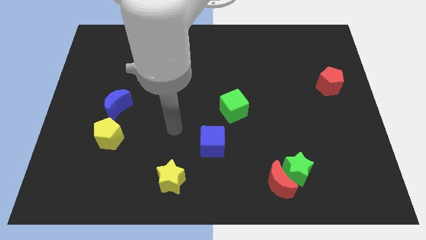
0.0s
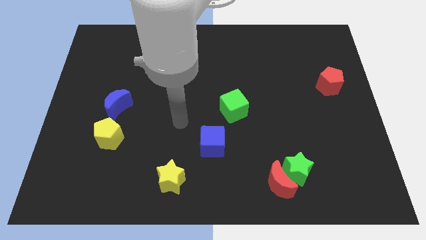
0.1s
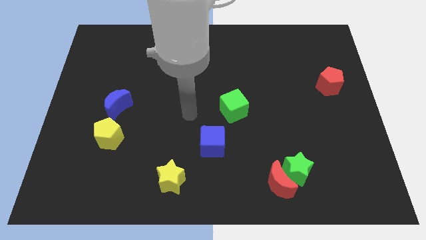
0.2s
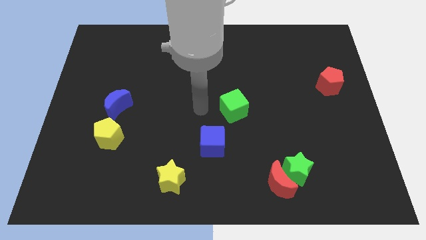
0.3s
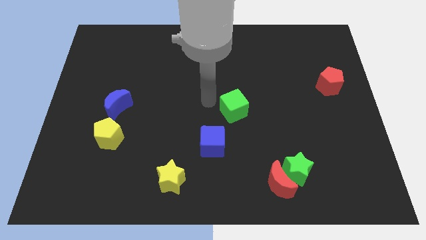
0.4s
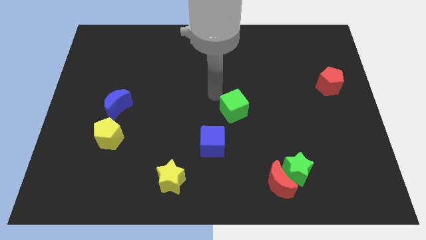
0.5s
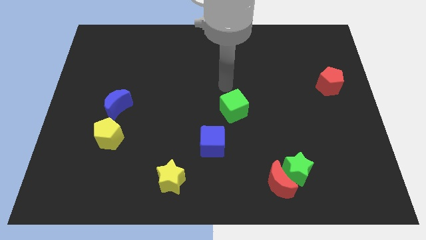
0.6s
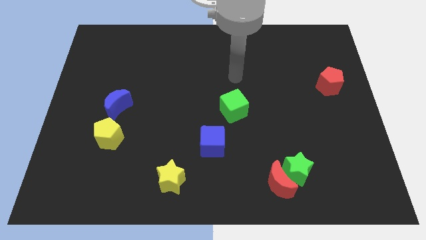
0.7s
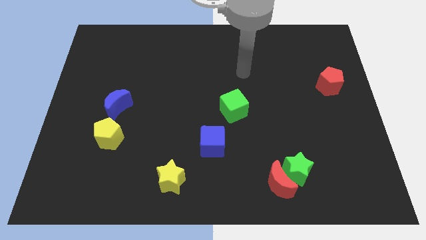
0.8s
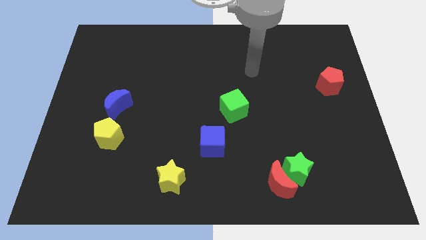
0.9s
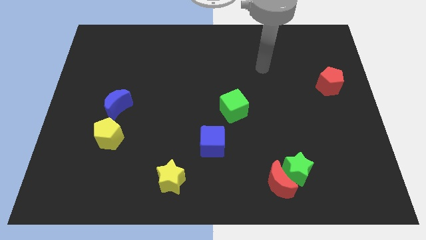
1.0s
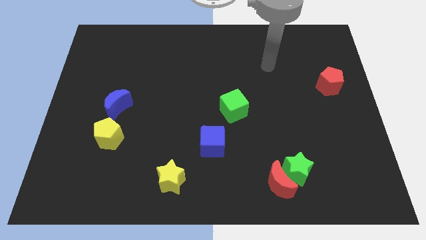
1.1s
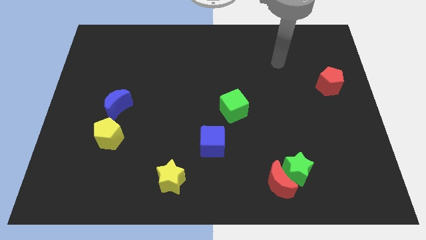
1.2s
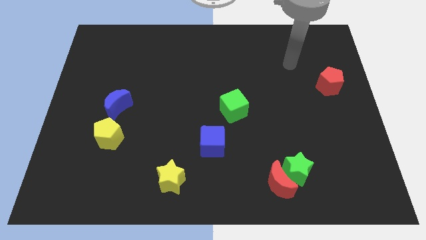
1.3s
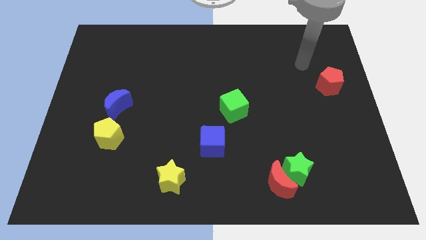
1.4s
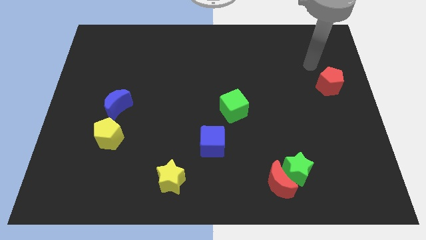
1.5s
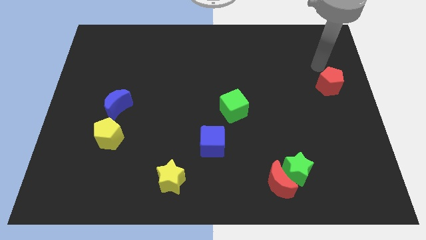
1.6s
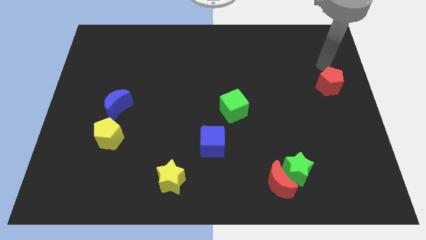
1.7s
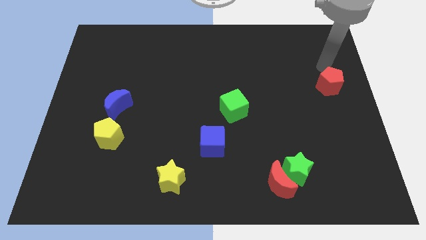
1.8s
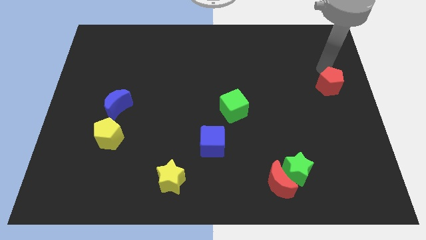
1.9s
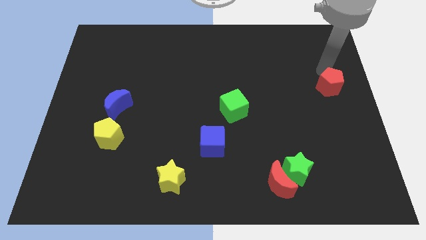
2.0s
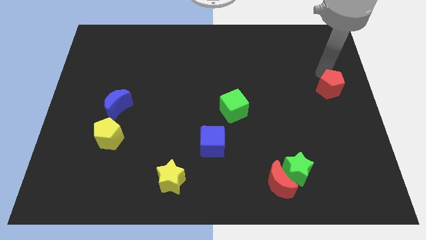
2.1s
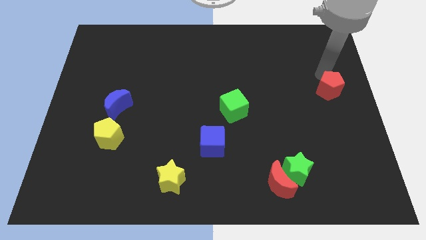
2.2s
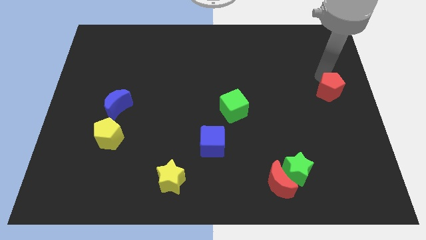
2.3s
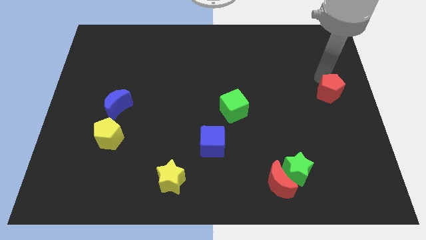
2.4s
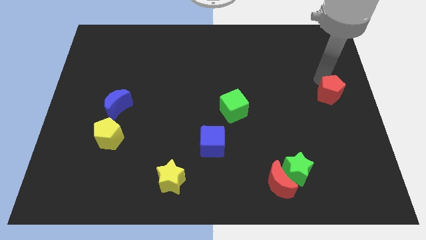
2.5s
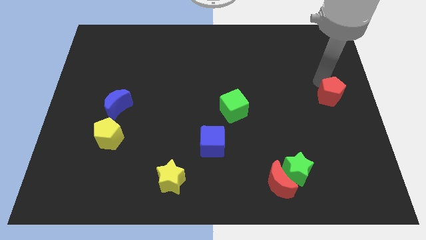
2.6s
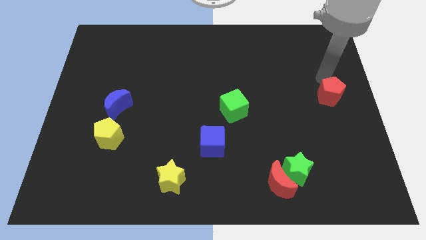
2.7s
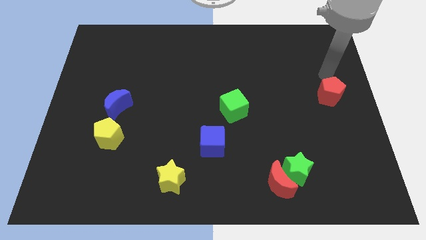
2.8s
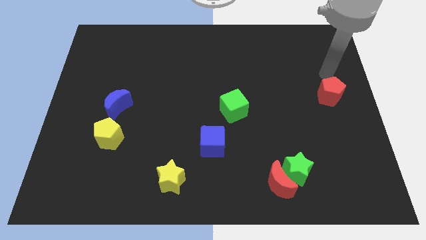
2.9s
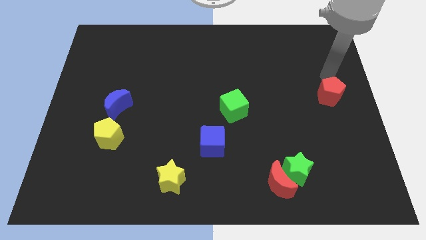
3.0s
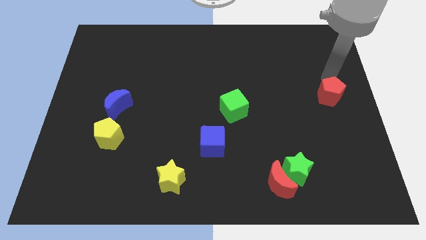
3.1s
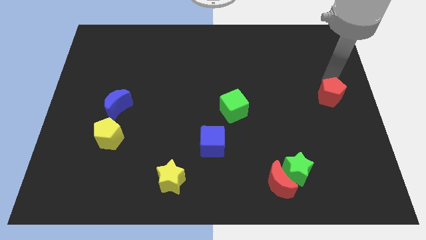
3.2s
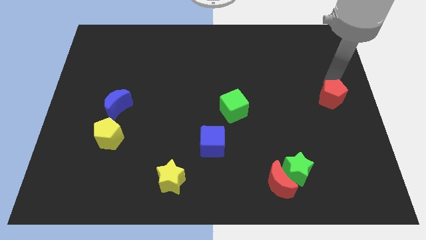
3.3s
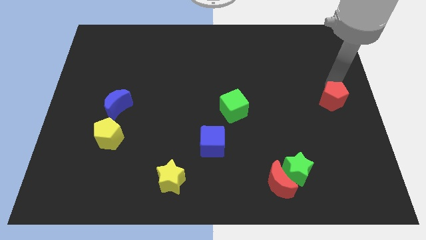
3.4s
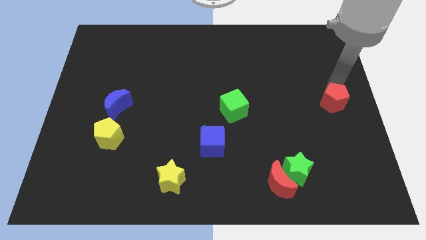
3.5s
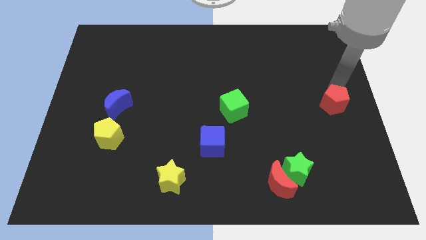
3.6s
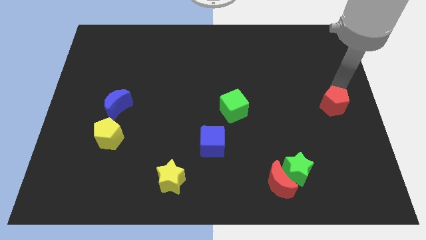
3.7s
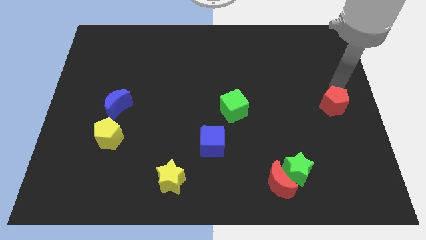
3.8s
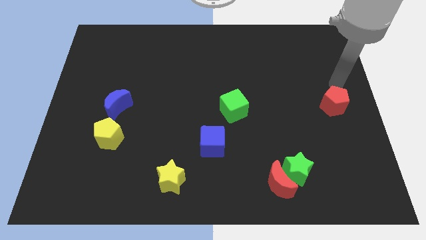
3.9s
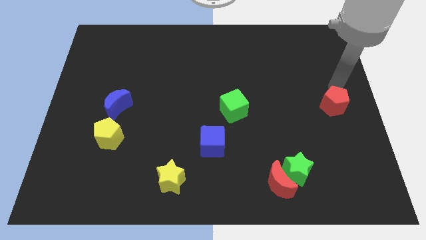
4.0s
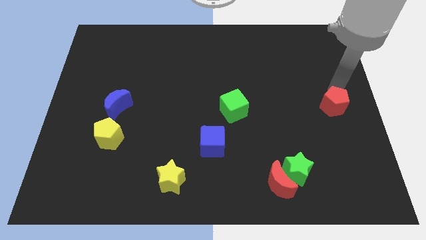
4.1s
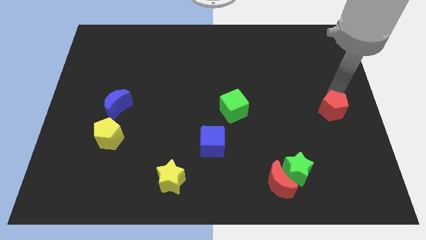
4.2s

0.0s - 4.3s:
push the red pentagon somewhat downwards

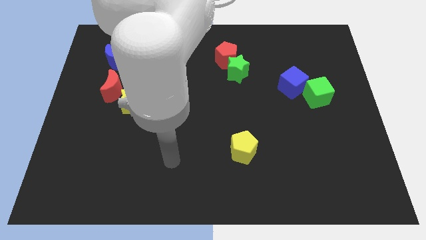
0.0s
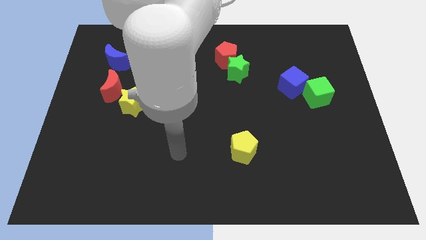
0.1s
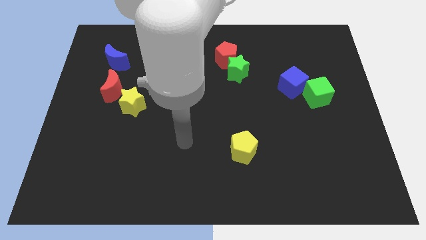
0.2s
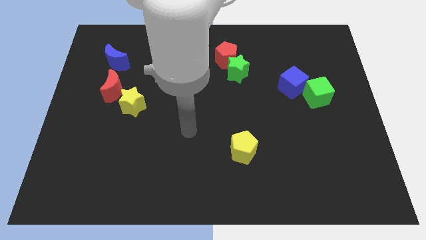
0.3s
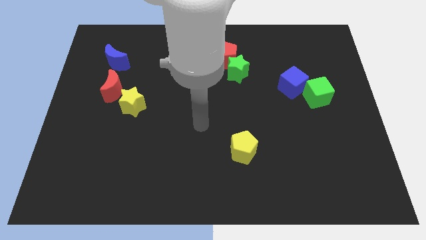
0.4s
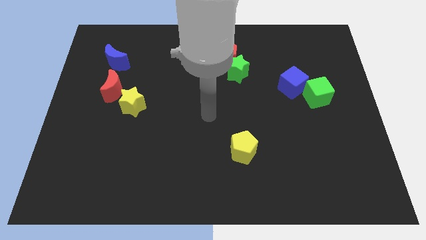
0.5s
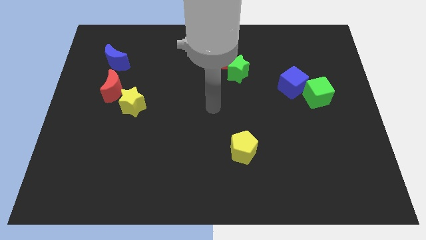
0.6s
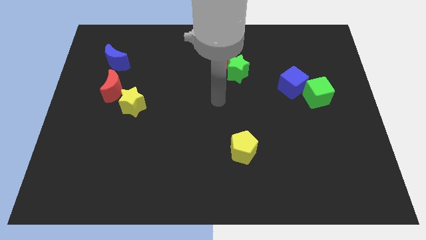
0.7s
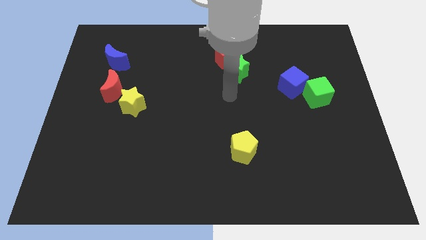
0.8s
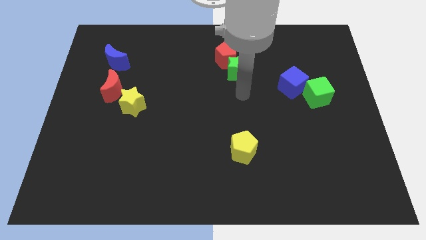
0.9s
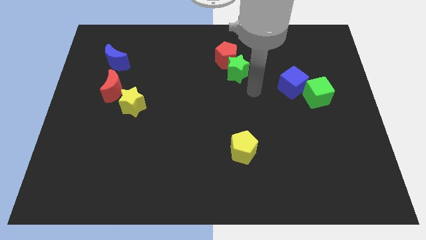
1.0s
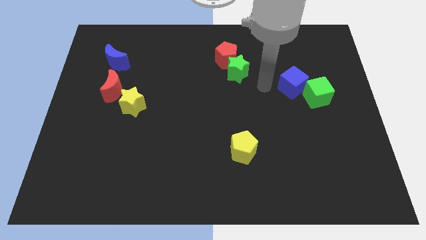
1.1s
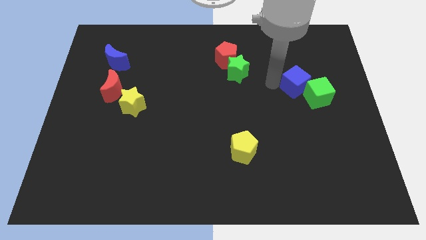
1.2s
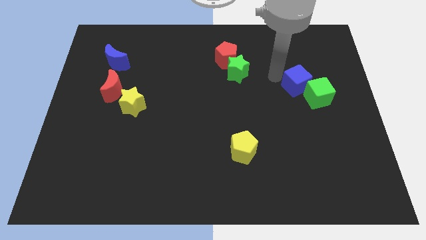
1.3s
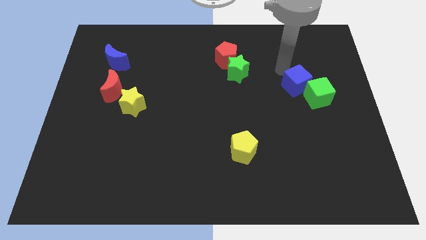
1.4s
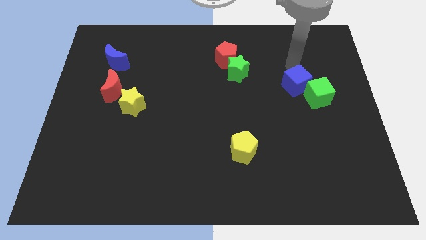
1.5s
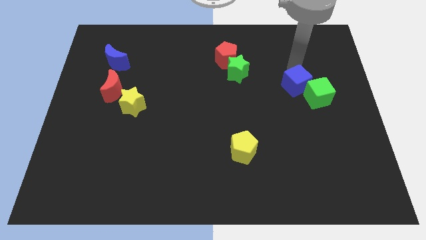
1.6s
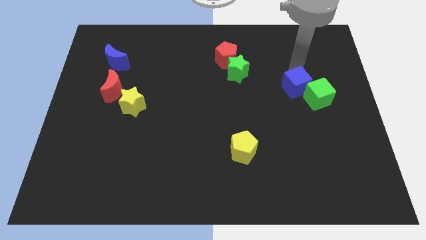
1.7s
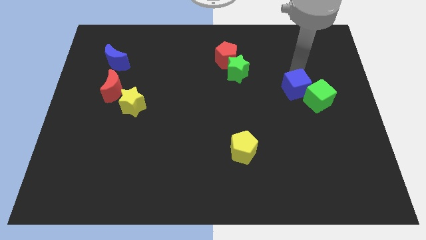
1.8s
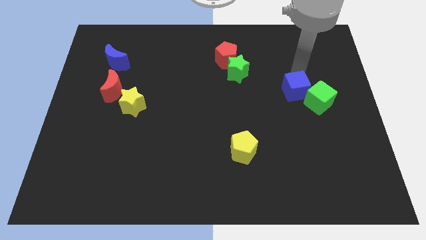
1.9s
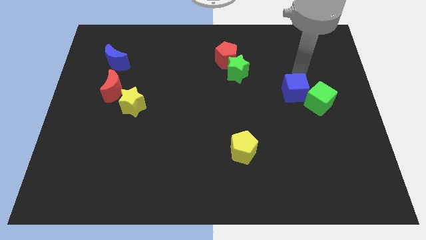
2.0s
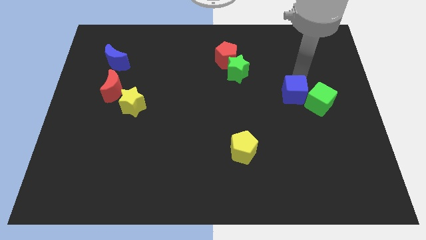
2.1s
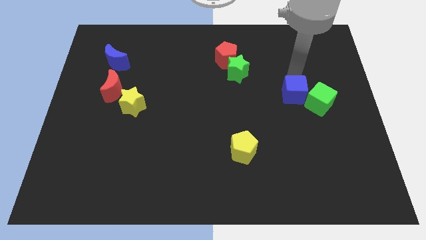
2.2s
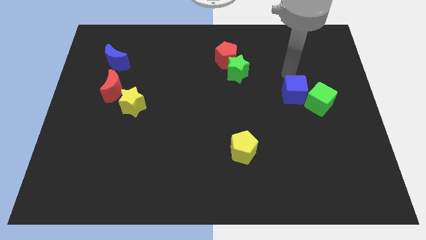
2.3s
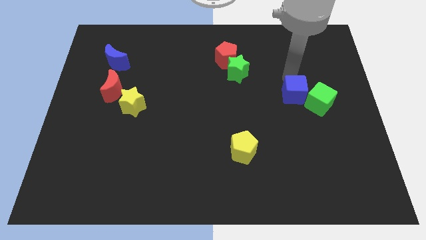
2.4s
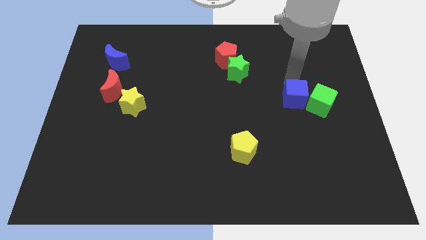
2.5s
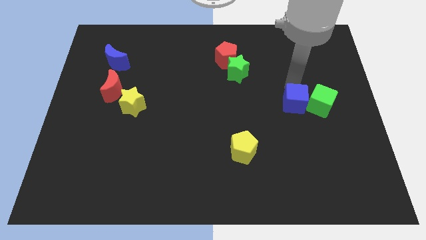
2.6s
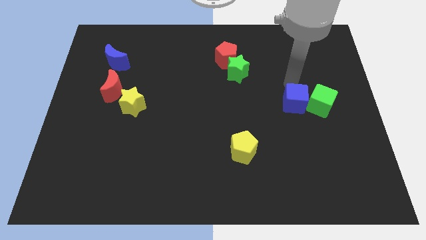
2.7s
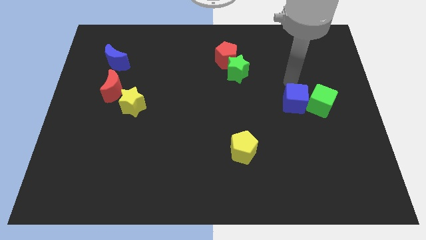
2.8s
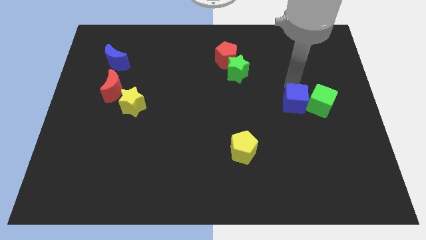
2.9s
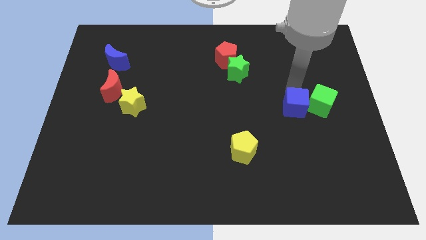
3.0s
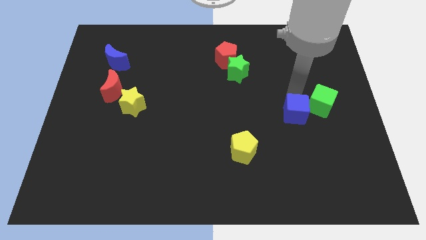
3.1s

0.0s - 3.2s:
push the blue cube a little bit down

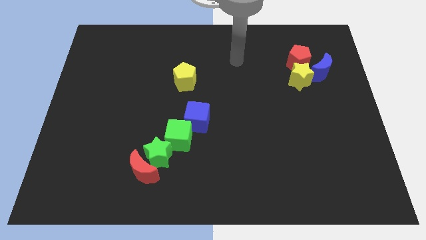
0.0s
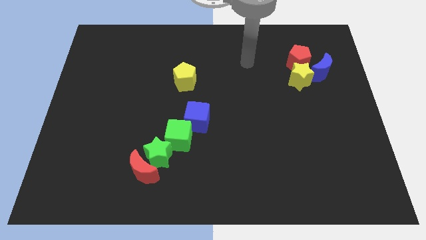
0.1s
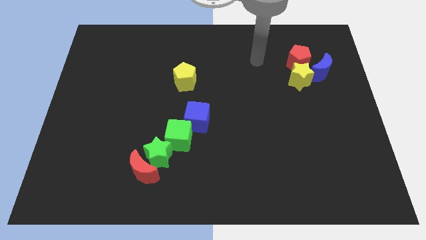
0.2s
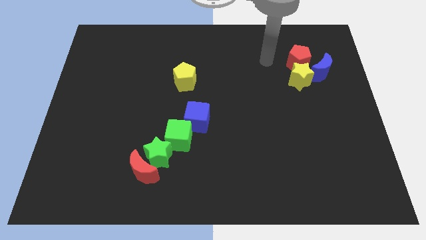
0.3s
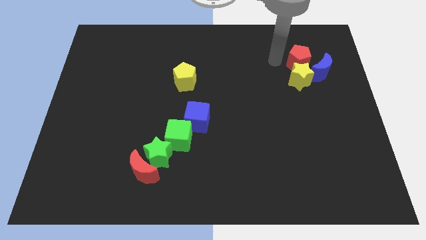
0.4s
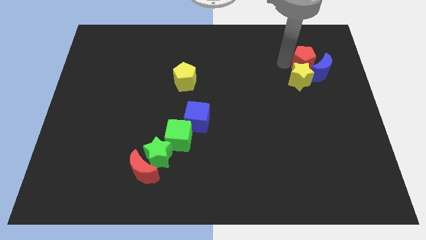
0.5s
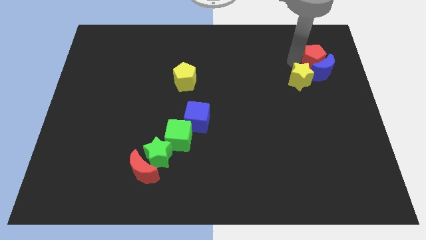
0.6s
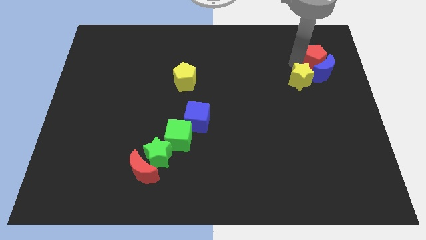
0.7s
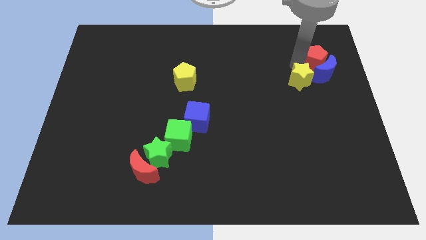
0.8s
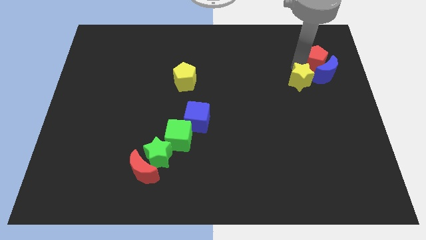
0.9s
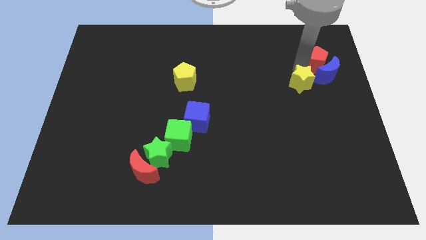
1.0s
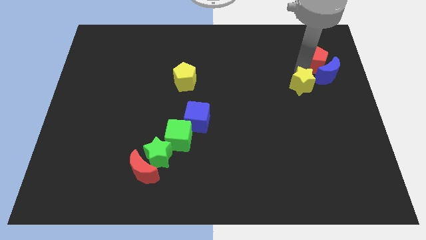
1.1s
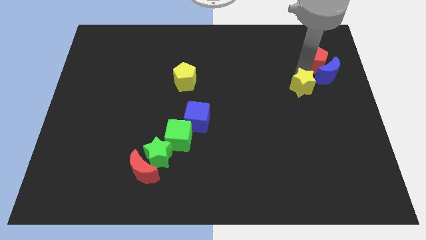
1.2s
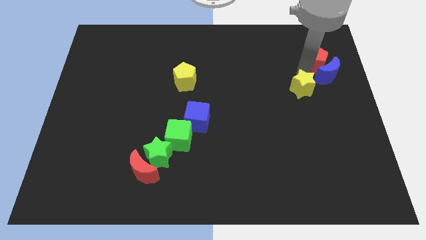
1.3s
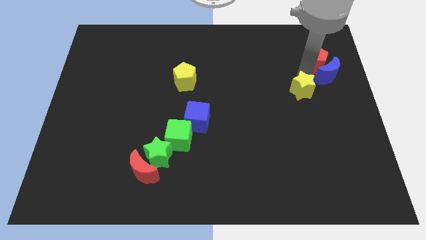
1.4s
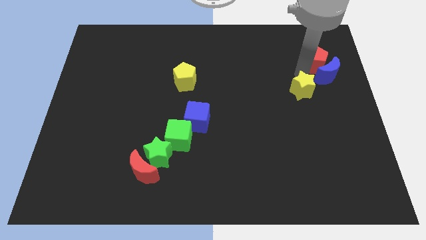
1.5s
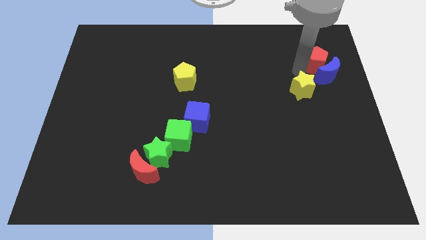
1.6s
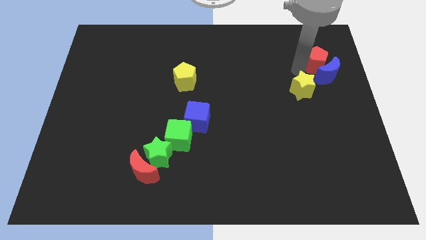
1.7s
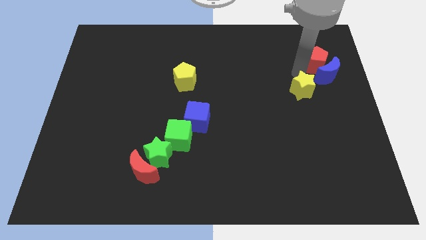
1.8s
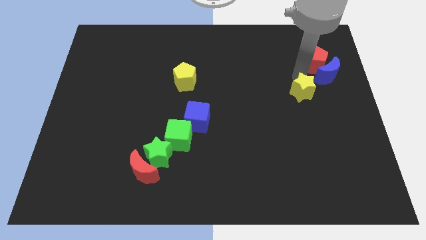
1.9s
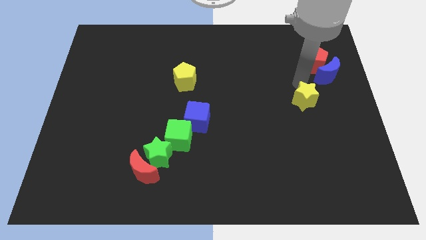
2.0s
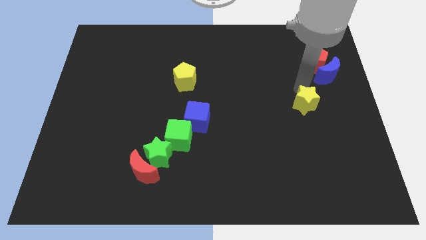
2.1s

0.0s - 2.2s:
slightly move the yellow star down
